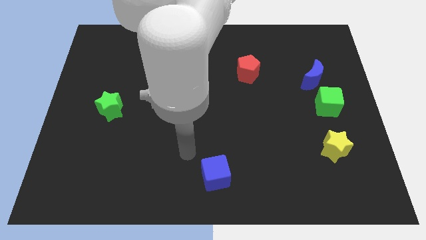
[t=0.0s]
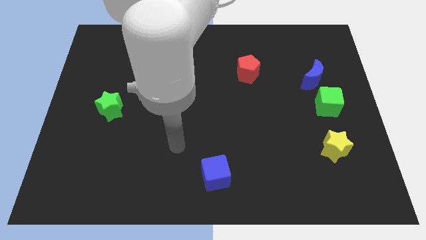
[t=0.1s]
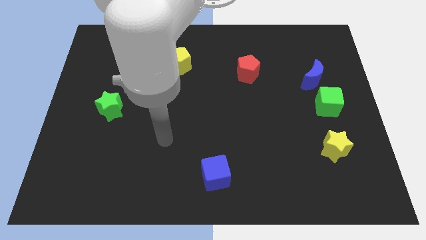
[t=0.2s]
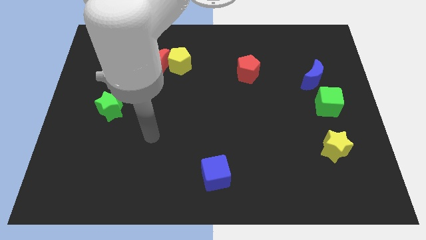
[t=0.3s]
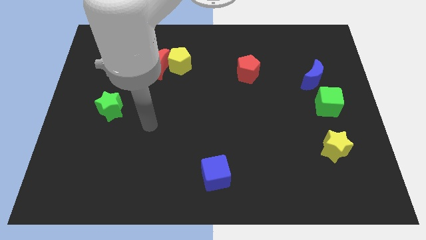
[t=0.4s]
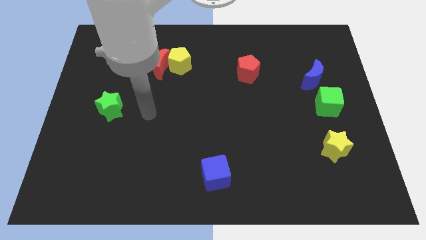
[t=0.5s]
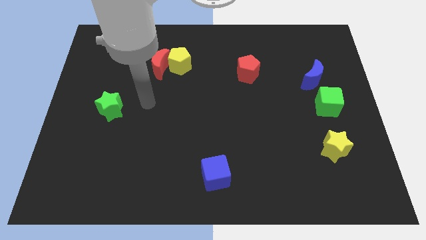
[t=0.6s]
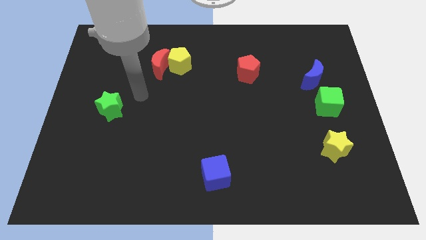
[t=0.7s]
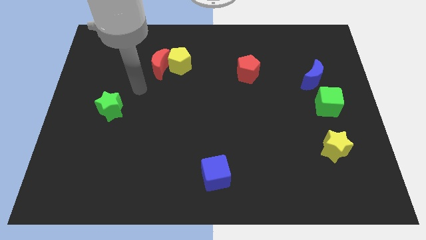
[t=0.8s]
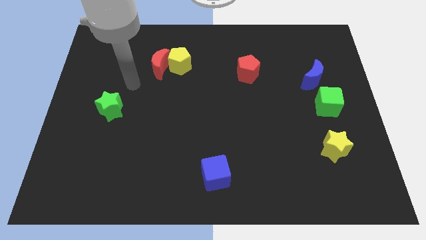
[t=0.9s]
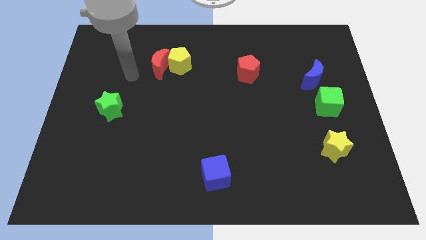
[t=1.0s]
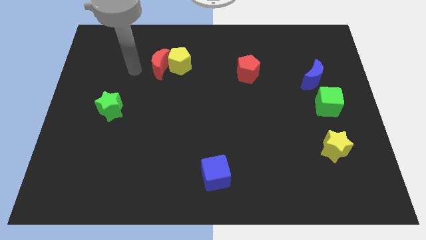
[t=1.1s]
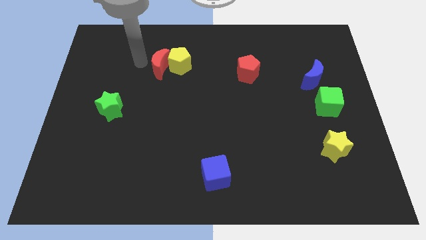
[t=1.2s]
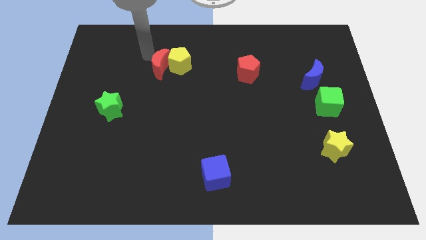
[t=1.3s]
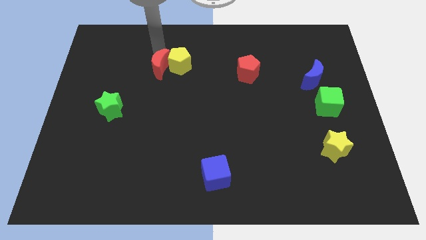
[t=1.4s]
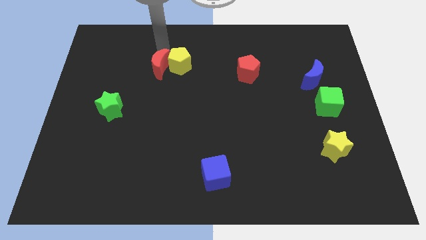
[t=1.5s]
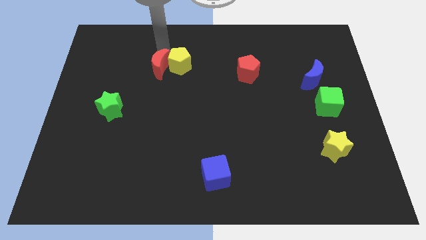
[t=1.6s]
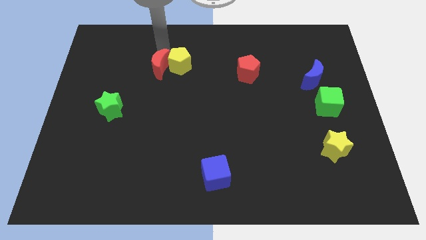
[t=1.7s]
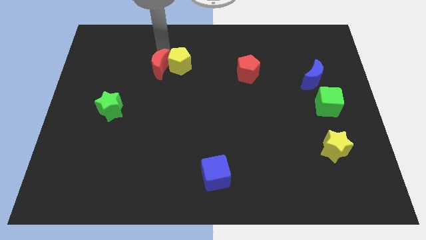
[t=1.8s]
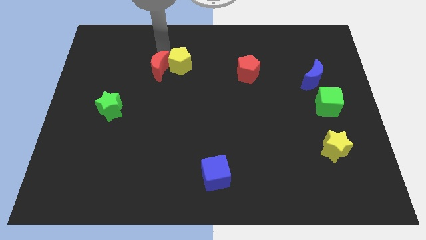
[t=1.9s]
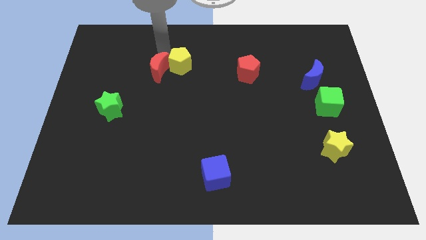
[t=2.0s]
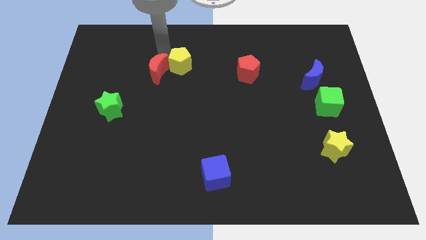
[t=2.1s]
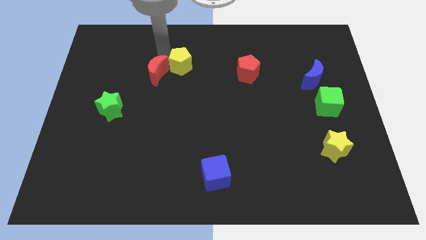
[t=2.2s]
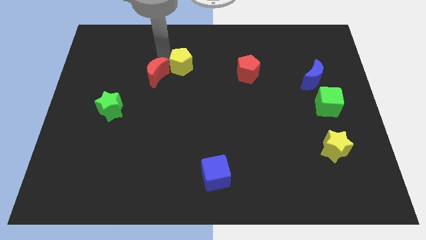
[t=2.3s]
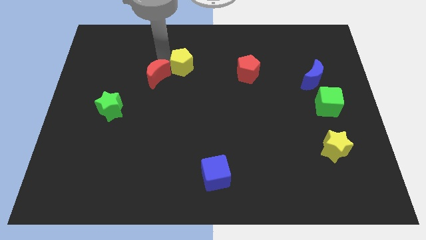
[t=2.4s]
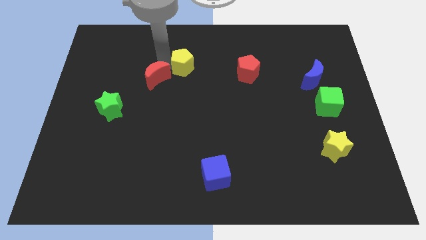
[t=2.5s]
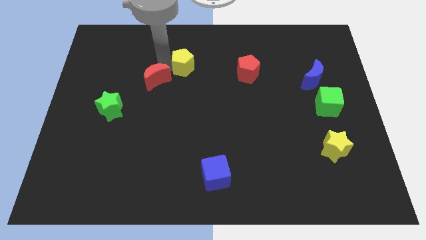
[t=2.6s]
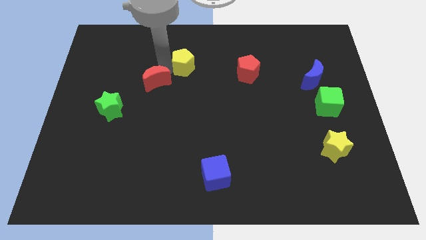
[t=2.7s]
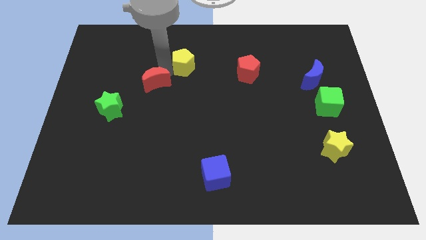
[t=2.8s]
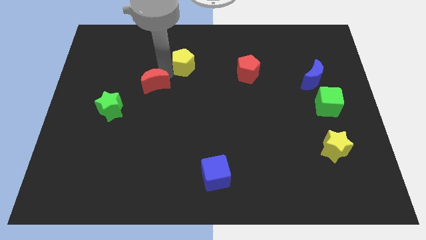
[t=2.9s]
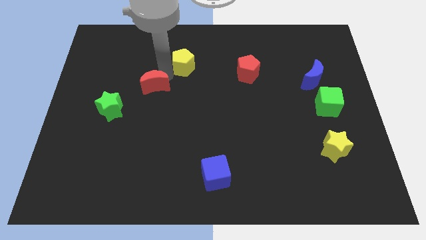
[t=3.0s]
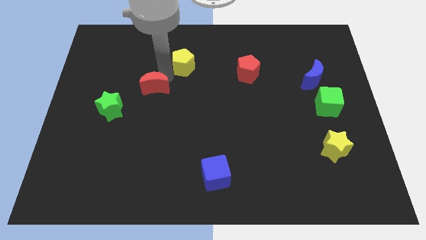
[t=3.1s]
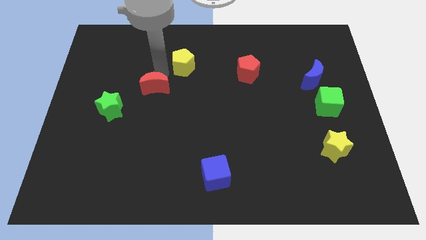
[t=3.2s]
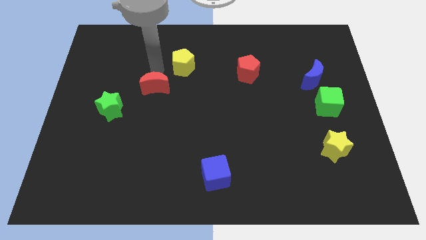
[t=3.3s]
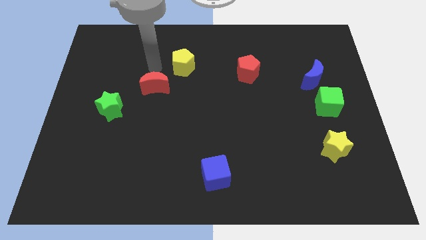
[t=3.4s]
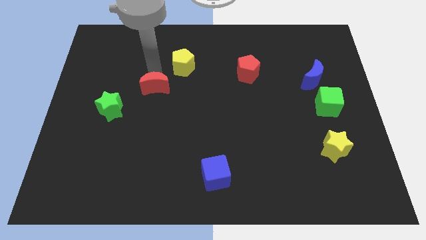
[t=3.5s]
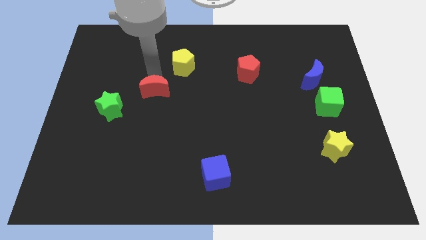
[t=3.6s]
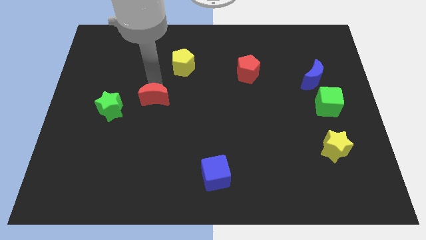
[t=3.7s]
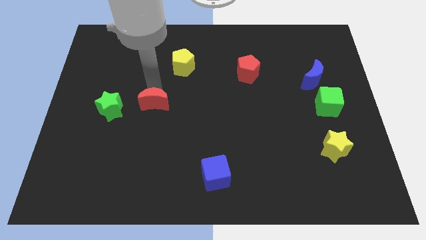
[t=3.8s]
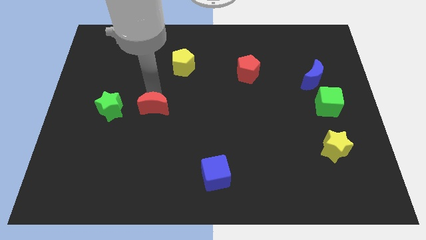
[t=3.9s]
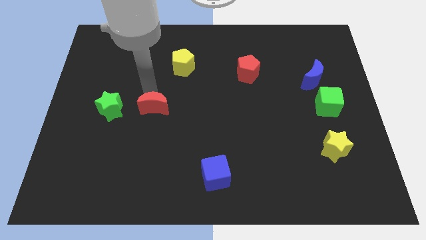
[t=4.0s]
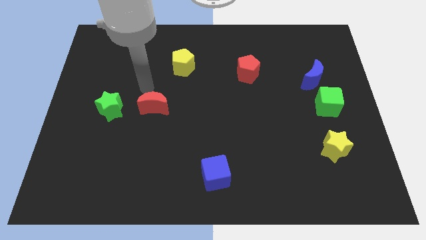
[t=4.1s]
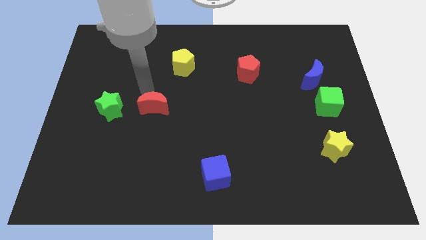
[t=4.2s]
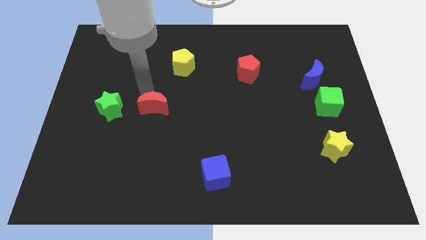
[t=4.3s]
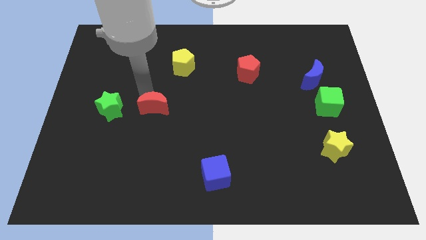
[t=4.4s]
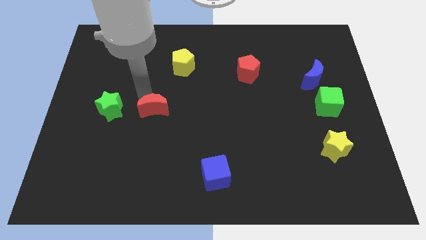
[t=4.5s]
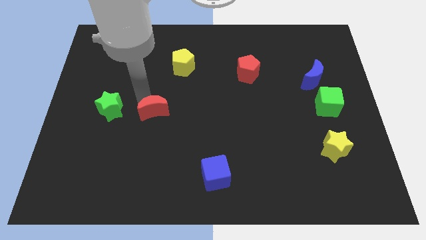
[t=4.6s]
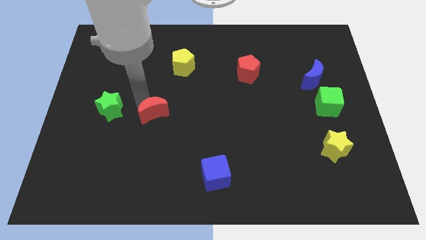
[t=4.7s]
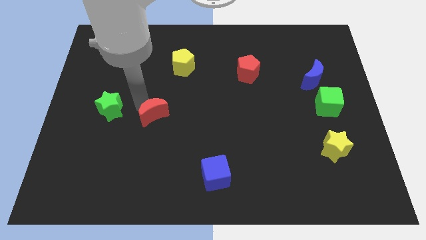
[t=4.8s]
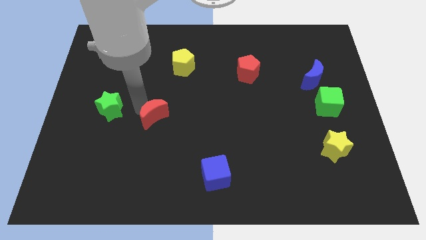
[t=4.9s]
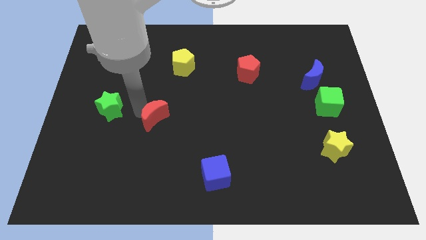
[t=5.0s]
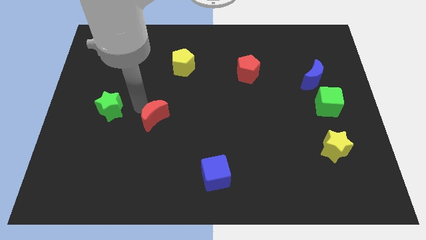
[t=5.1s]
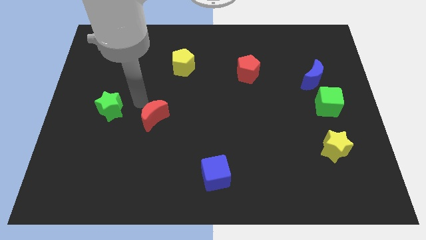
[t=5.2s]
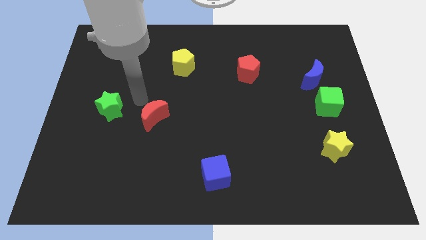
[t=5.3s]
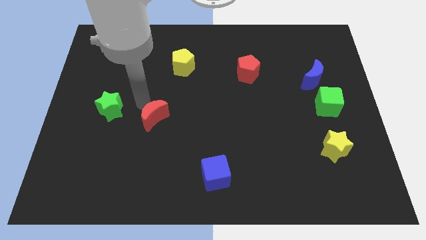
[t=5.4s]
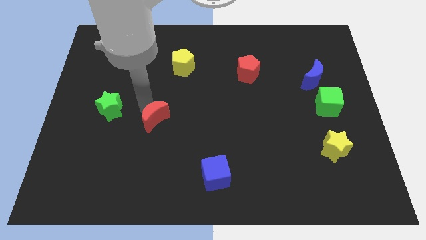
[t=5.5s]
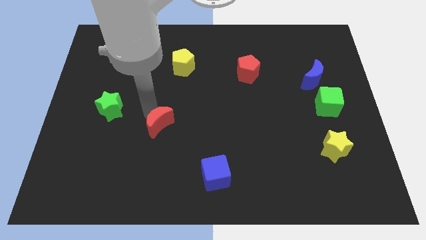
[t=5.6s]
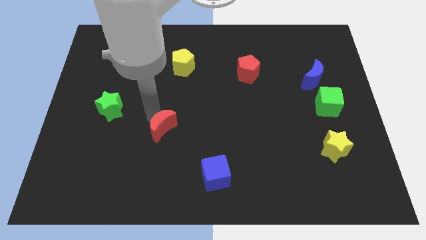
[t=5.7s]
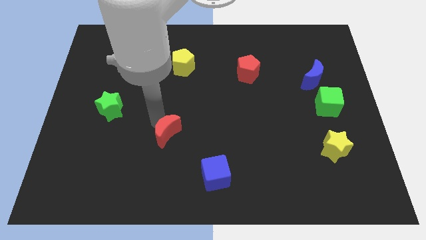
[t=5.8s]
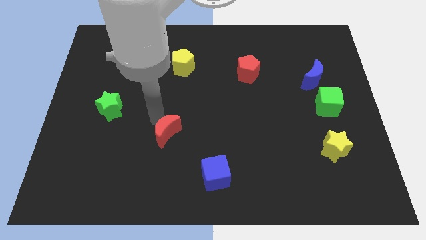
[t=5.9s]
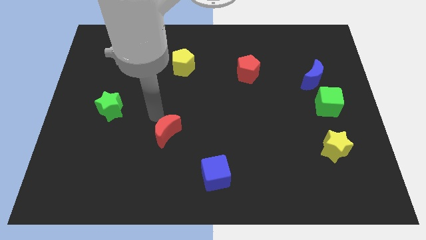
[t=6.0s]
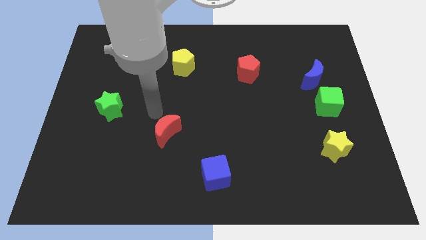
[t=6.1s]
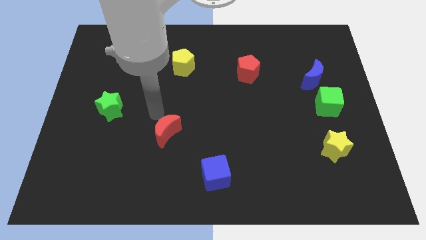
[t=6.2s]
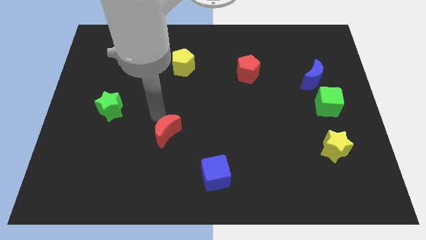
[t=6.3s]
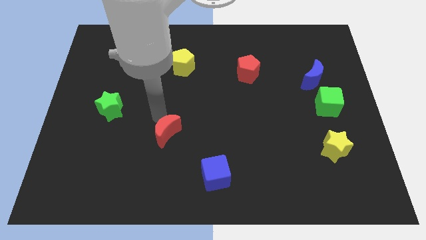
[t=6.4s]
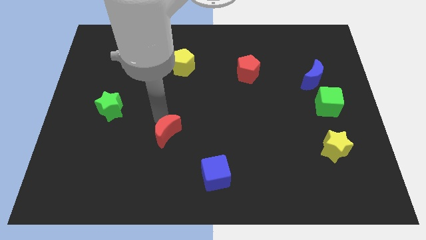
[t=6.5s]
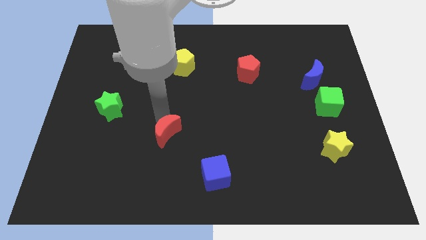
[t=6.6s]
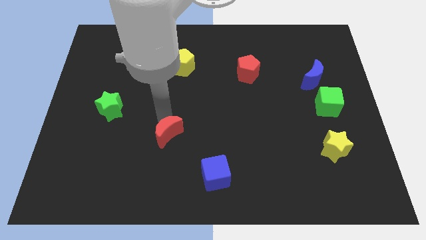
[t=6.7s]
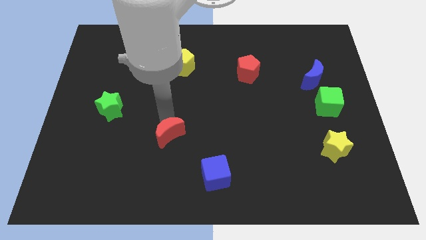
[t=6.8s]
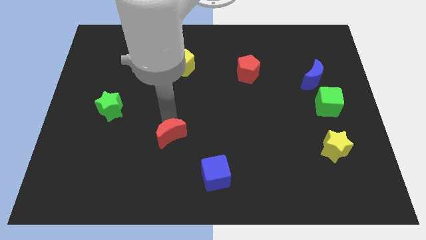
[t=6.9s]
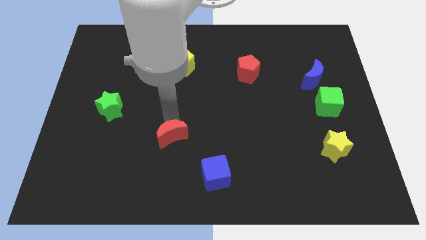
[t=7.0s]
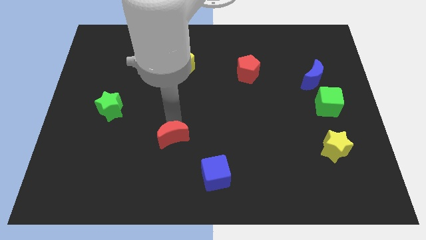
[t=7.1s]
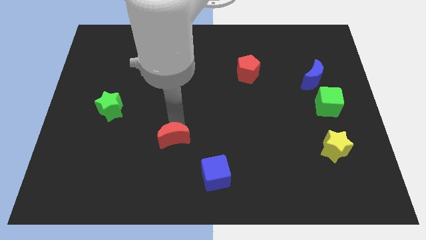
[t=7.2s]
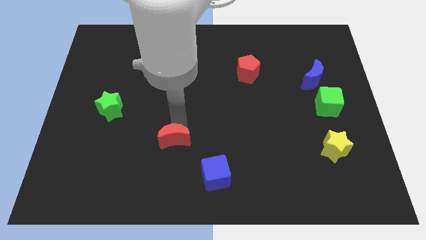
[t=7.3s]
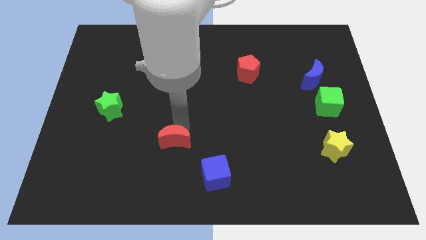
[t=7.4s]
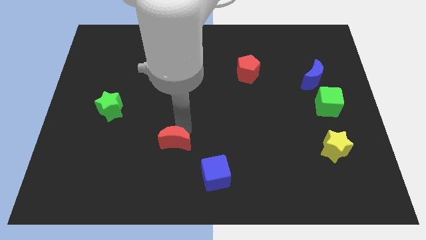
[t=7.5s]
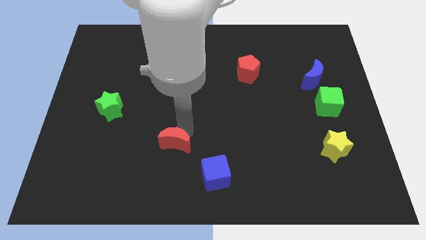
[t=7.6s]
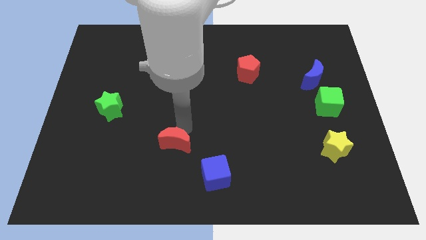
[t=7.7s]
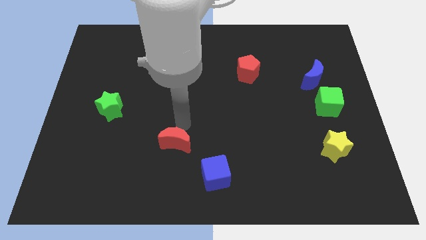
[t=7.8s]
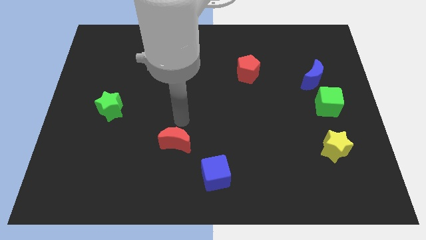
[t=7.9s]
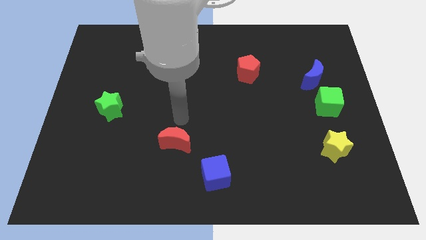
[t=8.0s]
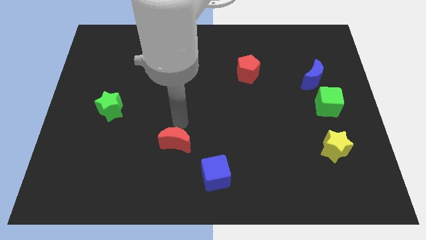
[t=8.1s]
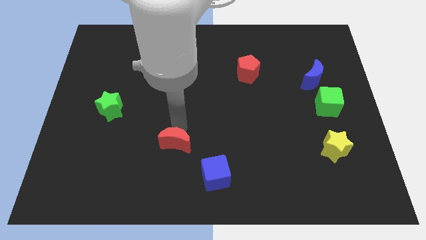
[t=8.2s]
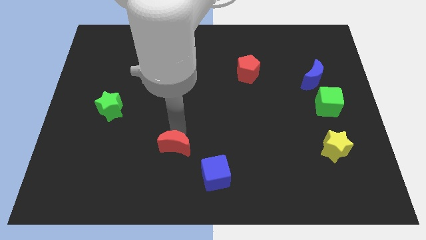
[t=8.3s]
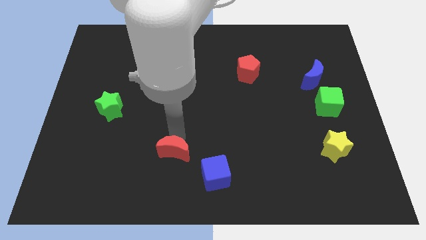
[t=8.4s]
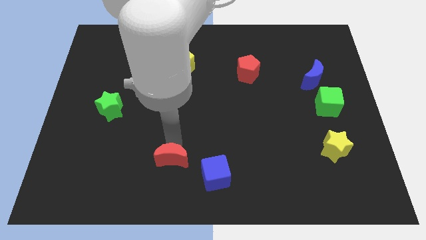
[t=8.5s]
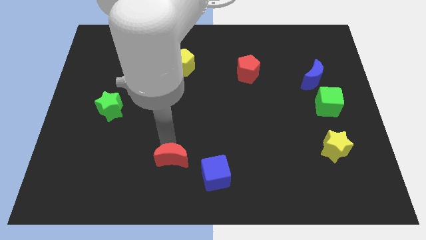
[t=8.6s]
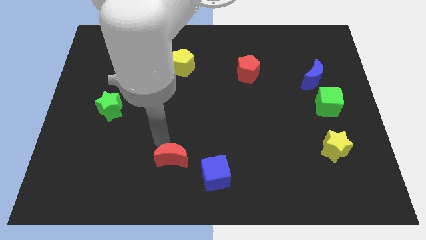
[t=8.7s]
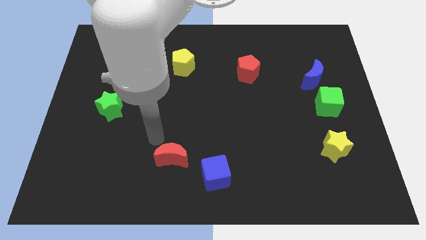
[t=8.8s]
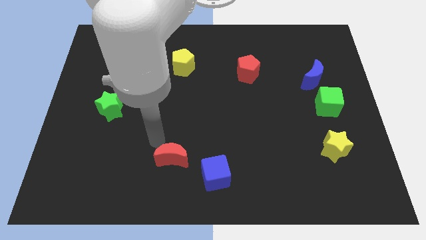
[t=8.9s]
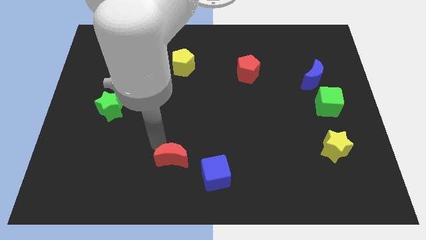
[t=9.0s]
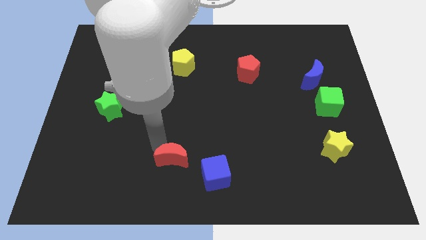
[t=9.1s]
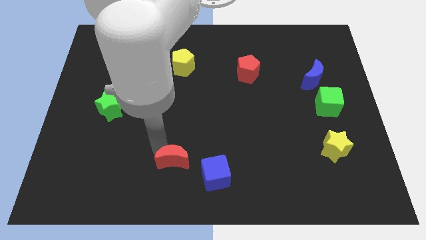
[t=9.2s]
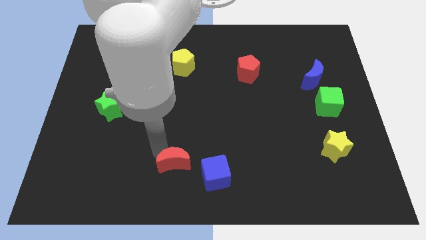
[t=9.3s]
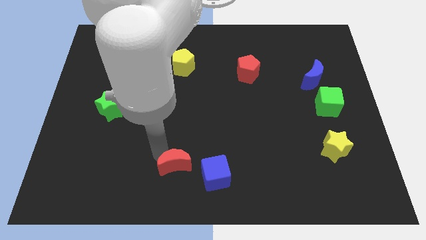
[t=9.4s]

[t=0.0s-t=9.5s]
put the red moon to the bottom
